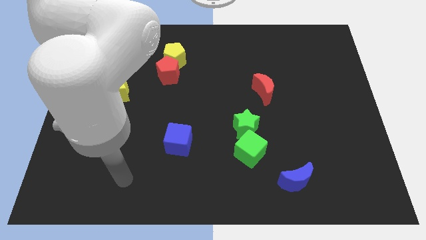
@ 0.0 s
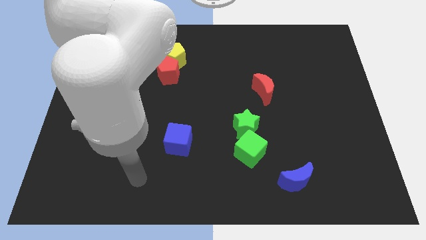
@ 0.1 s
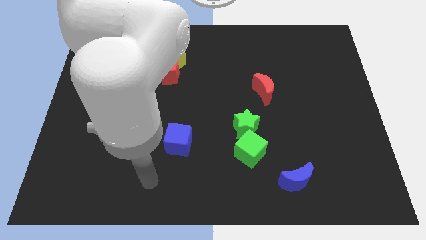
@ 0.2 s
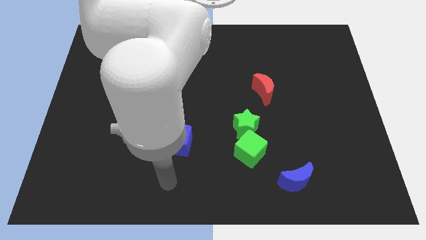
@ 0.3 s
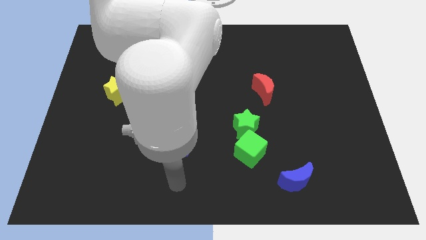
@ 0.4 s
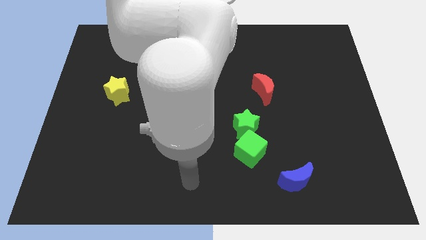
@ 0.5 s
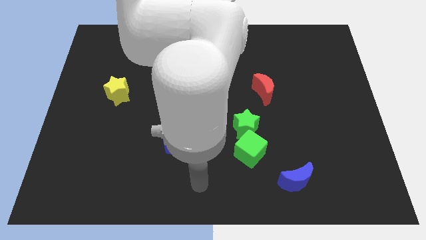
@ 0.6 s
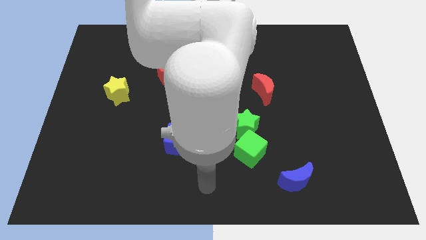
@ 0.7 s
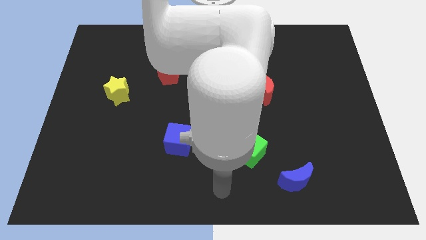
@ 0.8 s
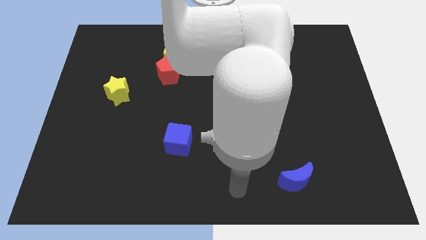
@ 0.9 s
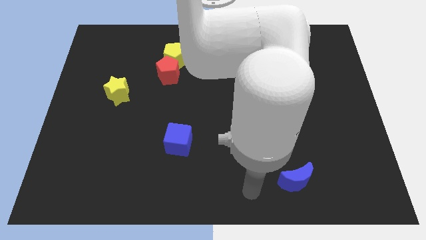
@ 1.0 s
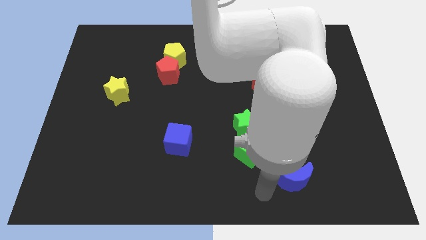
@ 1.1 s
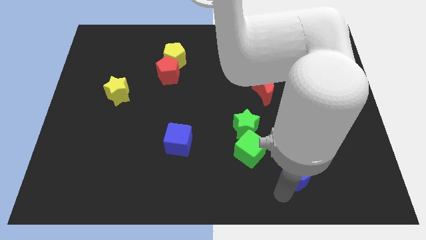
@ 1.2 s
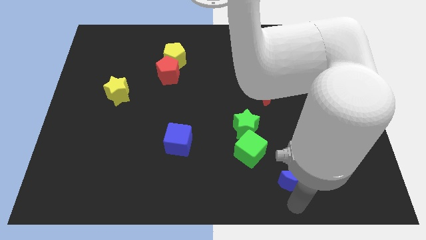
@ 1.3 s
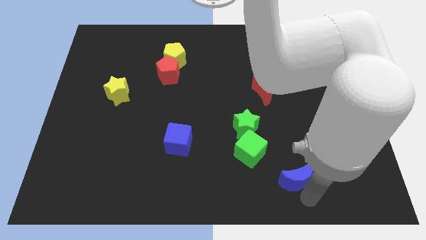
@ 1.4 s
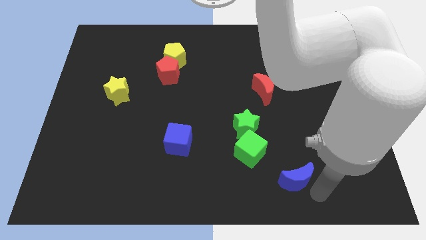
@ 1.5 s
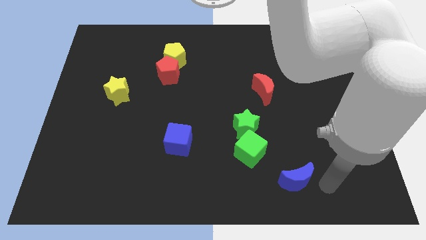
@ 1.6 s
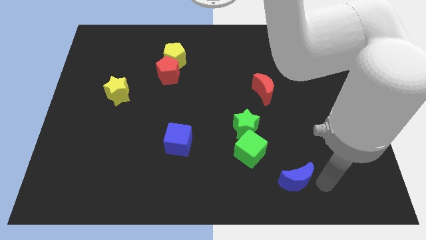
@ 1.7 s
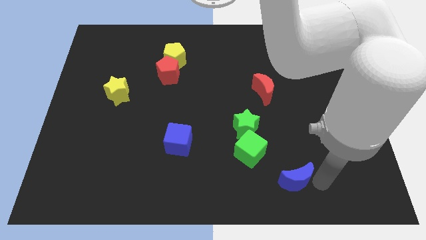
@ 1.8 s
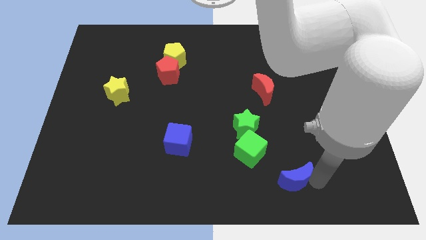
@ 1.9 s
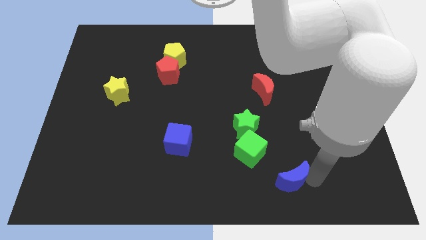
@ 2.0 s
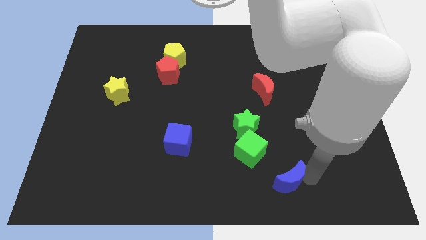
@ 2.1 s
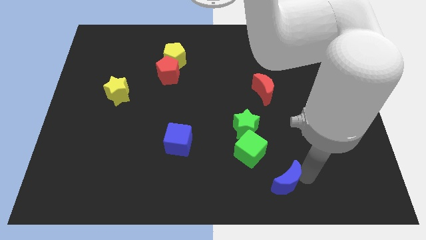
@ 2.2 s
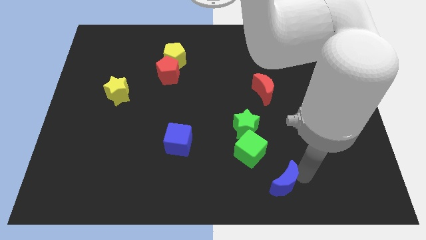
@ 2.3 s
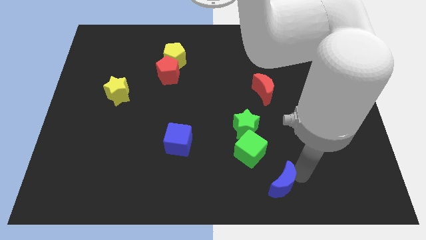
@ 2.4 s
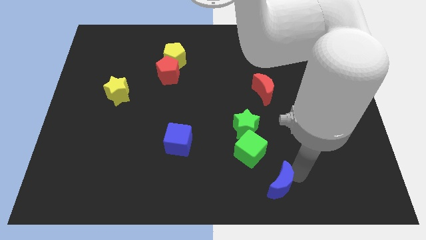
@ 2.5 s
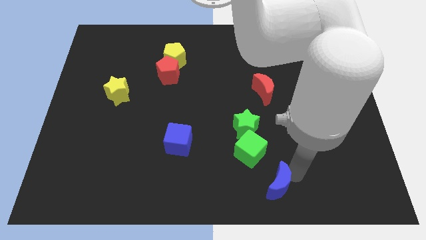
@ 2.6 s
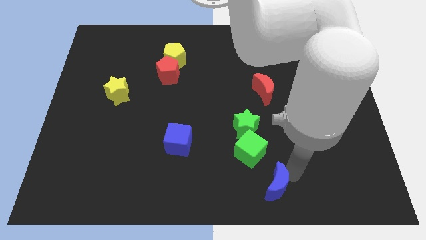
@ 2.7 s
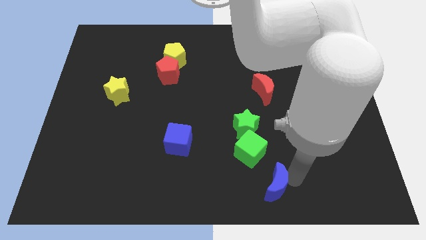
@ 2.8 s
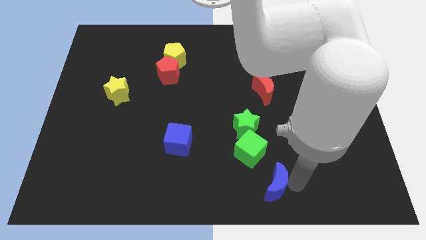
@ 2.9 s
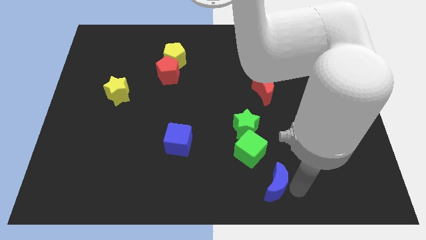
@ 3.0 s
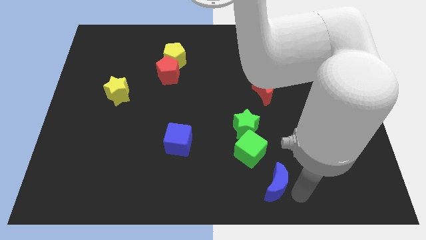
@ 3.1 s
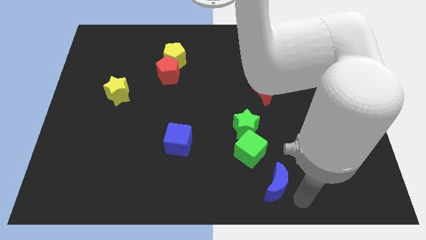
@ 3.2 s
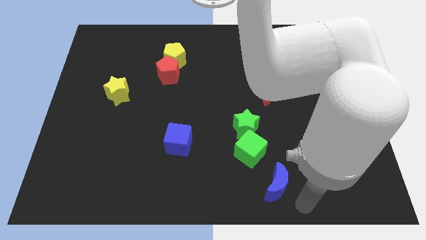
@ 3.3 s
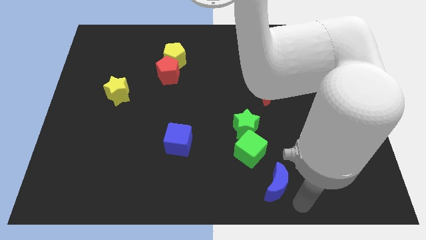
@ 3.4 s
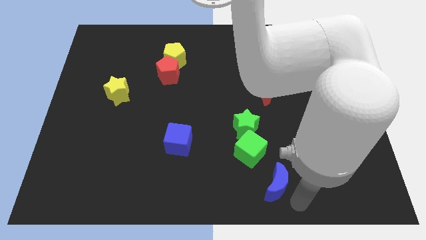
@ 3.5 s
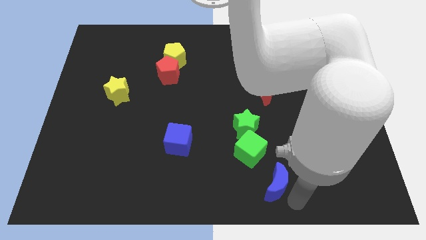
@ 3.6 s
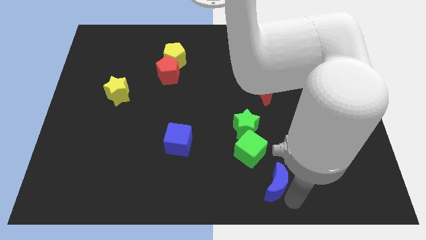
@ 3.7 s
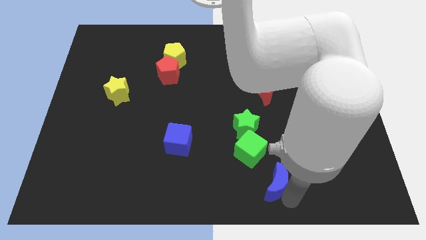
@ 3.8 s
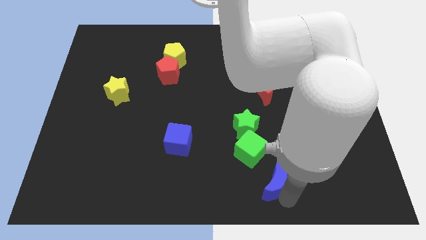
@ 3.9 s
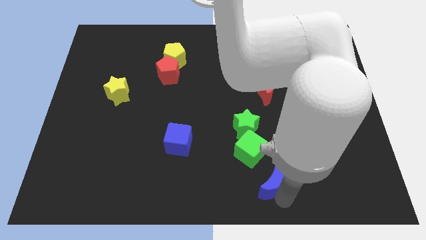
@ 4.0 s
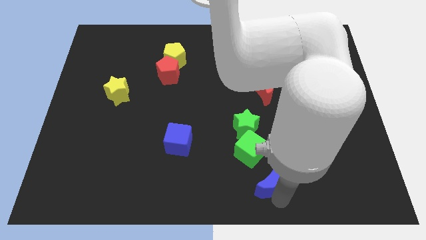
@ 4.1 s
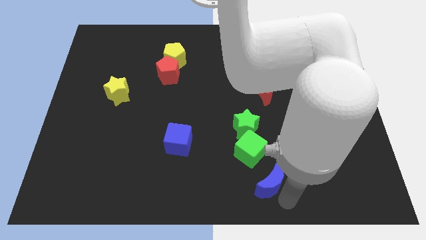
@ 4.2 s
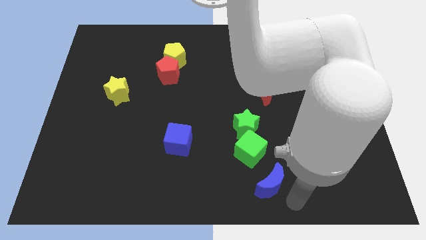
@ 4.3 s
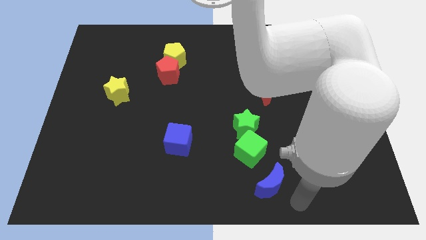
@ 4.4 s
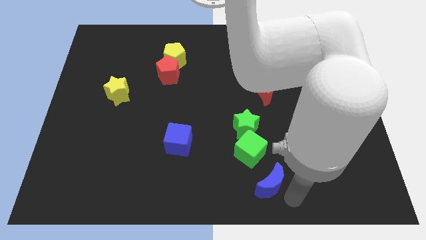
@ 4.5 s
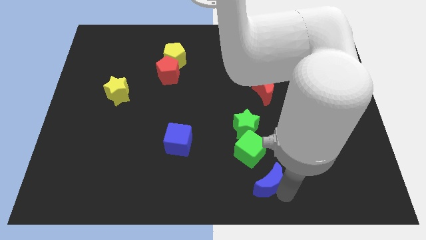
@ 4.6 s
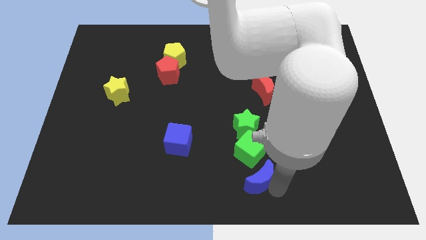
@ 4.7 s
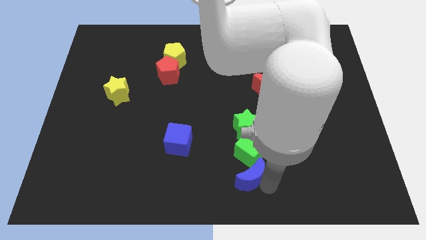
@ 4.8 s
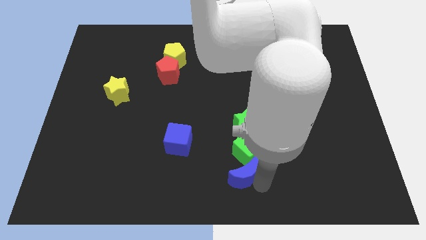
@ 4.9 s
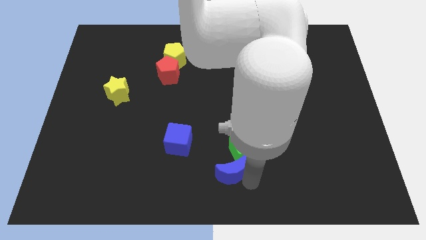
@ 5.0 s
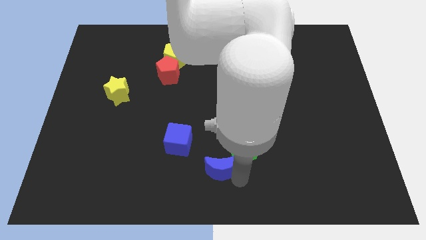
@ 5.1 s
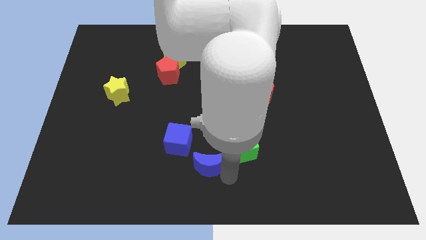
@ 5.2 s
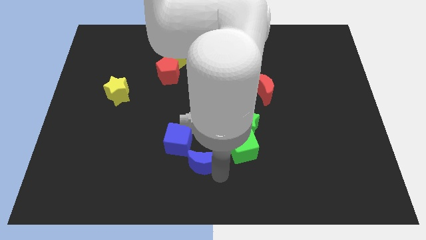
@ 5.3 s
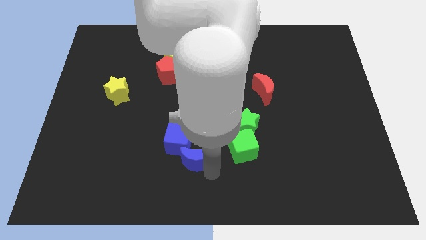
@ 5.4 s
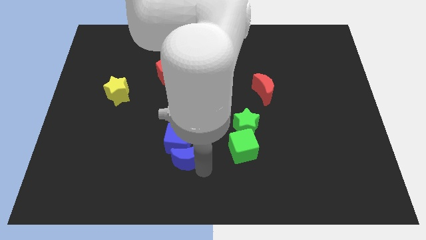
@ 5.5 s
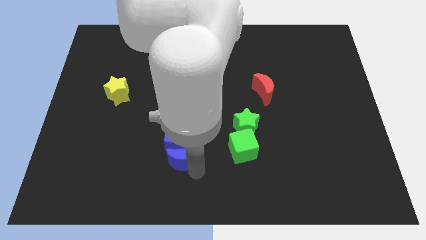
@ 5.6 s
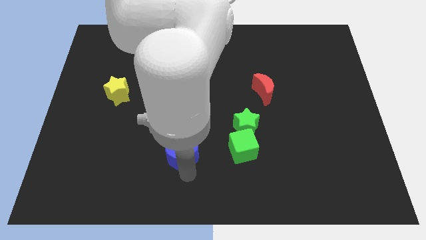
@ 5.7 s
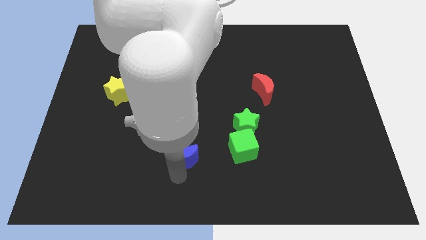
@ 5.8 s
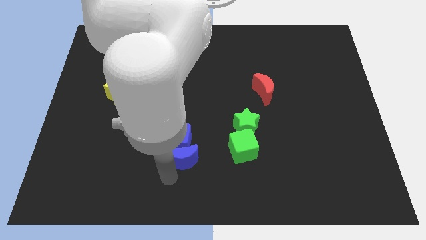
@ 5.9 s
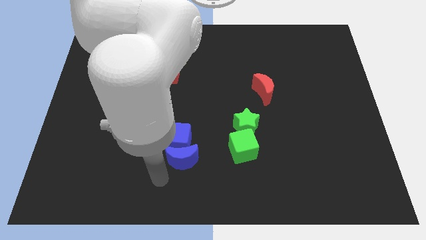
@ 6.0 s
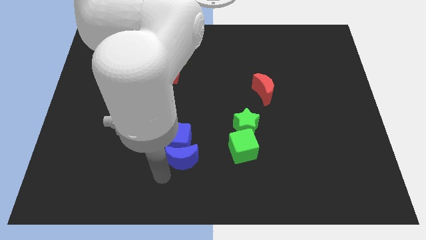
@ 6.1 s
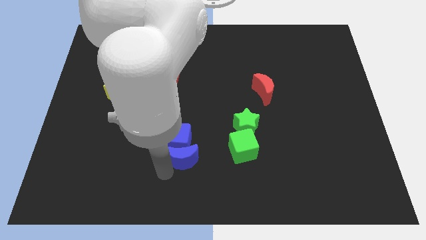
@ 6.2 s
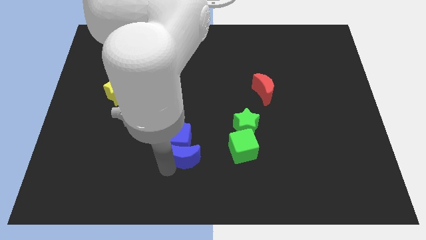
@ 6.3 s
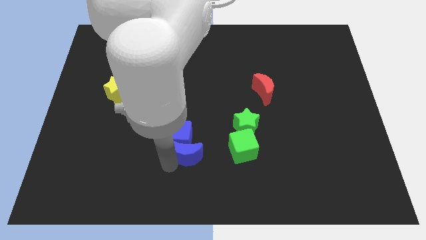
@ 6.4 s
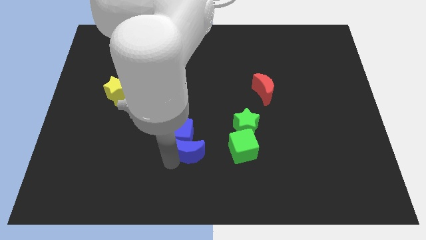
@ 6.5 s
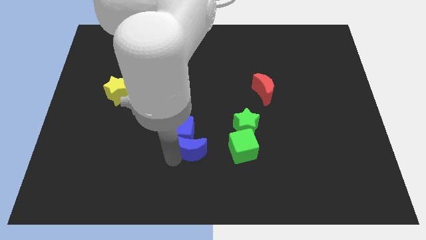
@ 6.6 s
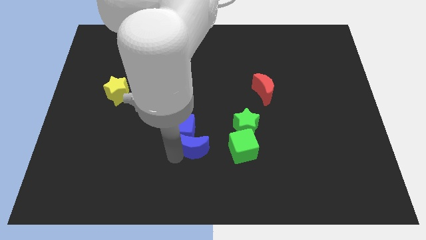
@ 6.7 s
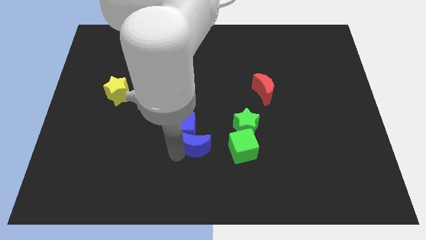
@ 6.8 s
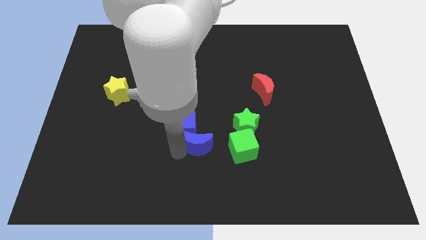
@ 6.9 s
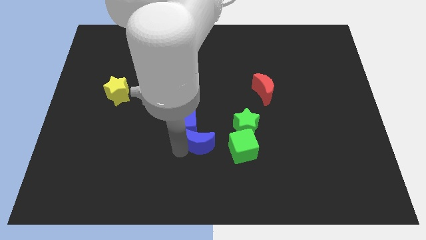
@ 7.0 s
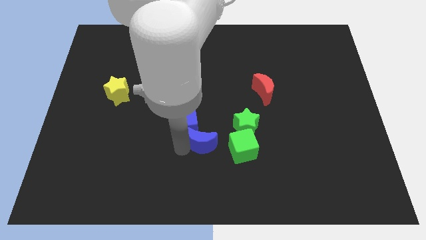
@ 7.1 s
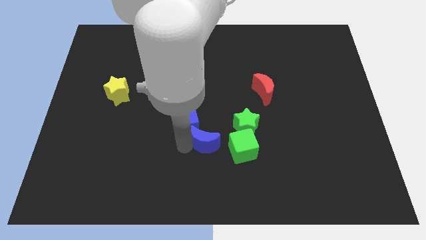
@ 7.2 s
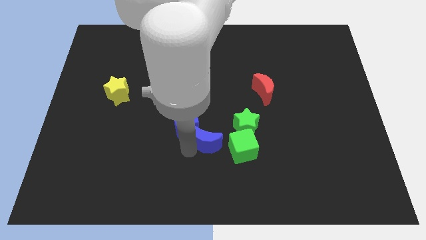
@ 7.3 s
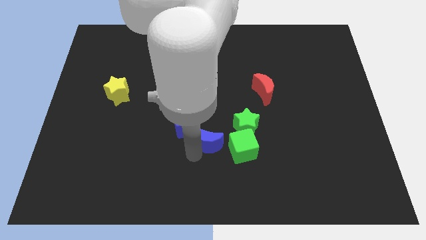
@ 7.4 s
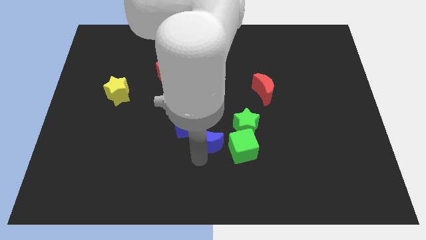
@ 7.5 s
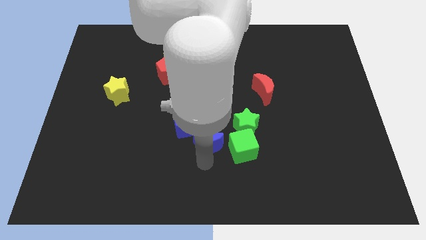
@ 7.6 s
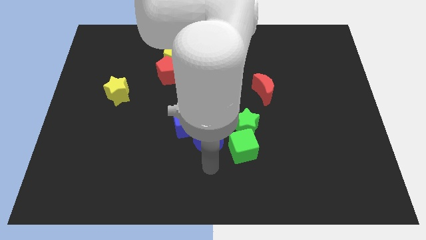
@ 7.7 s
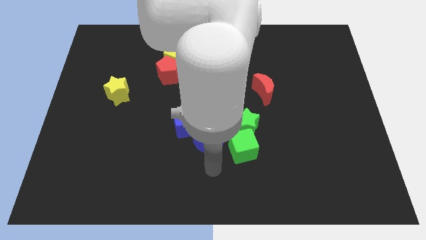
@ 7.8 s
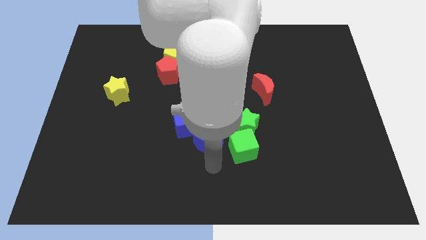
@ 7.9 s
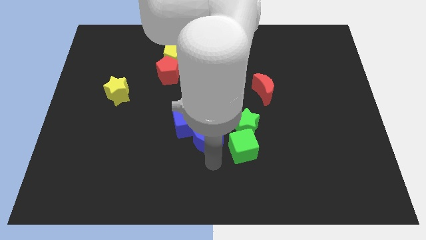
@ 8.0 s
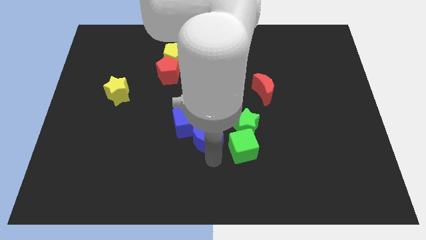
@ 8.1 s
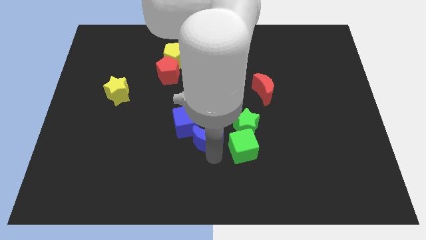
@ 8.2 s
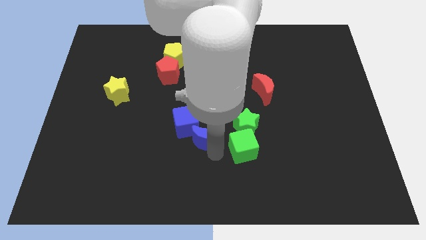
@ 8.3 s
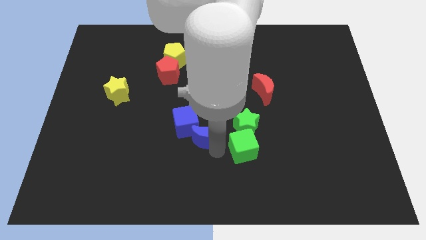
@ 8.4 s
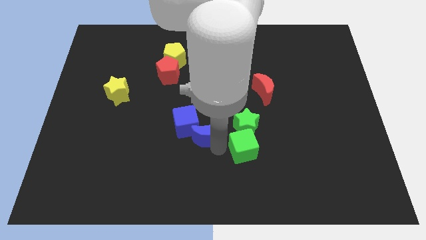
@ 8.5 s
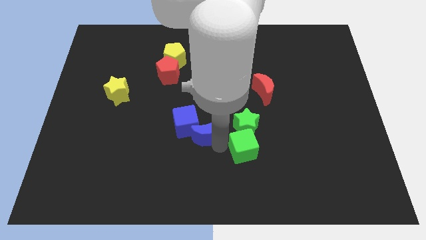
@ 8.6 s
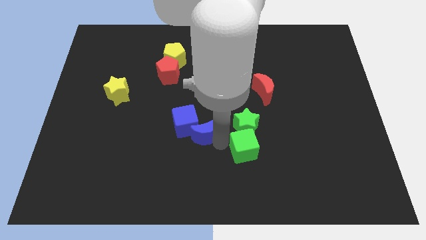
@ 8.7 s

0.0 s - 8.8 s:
push the blue moon diagonally up and left
